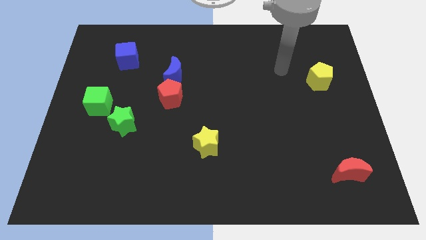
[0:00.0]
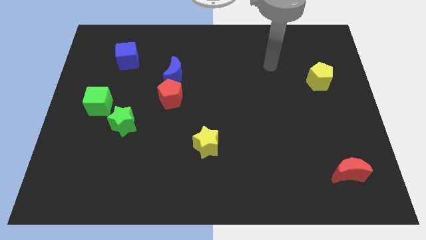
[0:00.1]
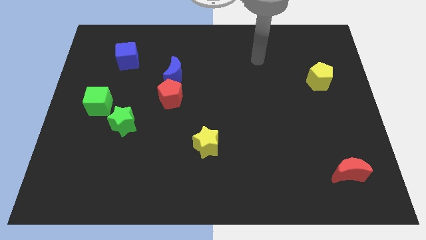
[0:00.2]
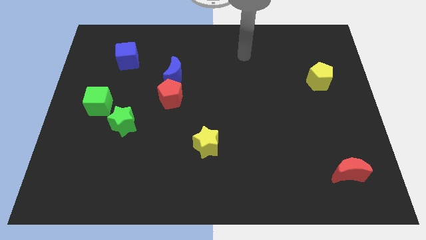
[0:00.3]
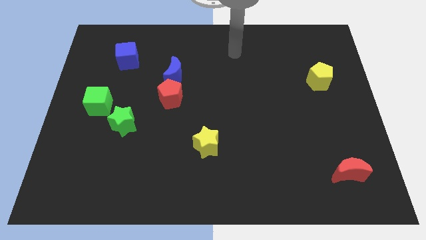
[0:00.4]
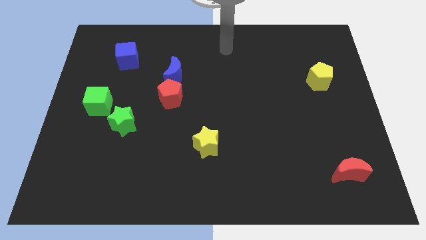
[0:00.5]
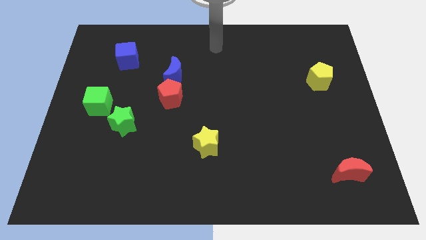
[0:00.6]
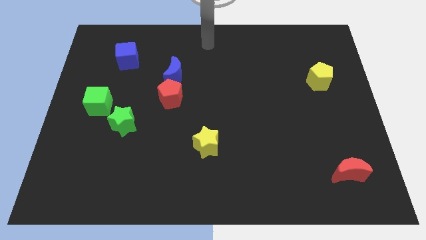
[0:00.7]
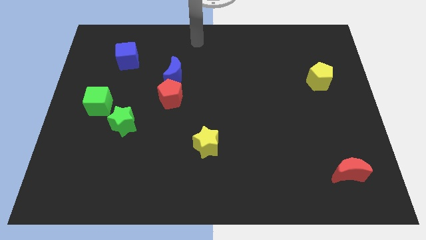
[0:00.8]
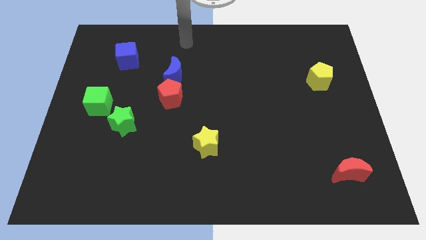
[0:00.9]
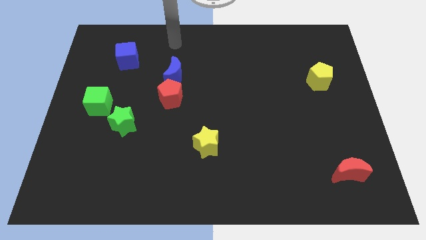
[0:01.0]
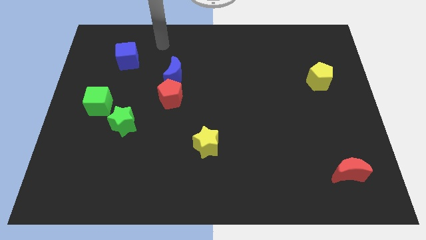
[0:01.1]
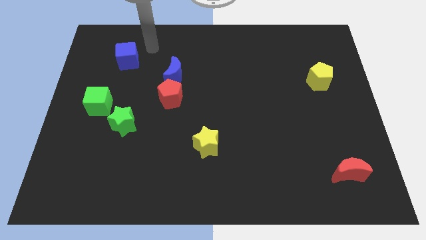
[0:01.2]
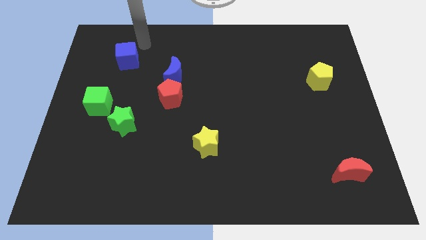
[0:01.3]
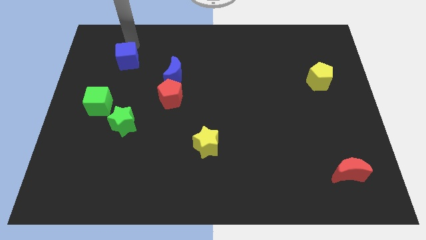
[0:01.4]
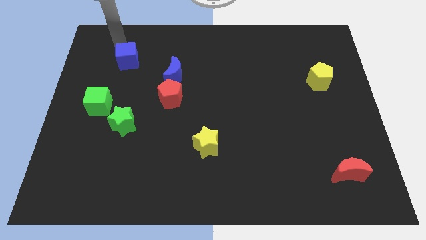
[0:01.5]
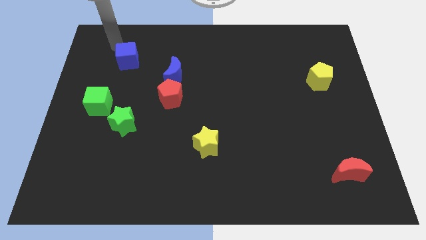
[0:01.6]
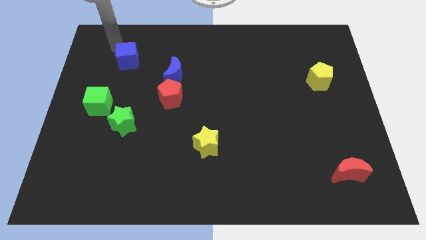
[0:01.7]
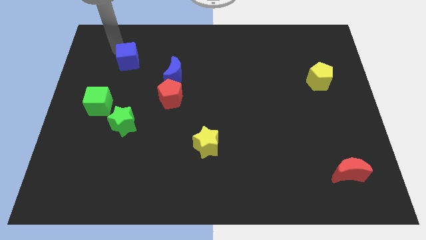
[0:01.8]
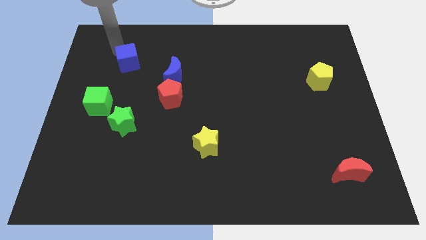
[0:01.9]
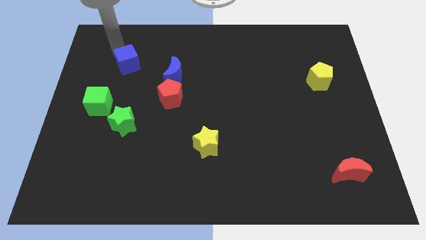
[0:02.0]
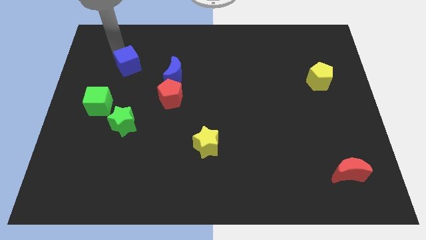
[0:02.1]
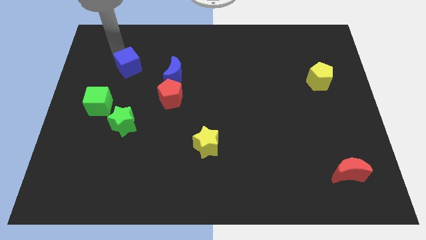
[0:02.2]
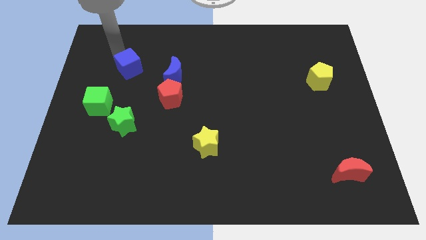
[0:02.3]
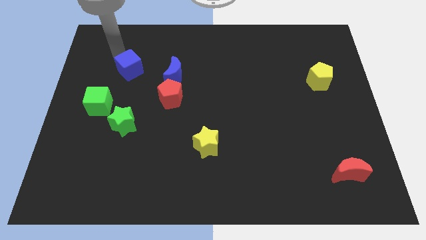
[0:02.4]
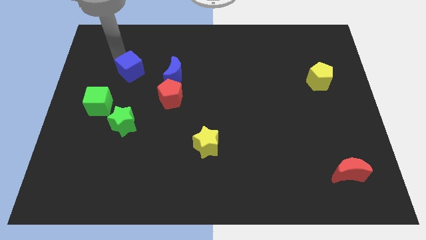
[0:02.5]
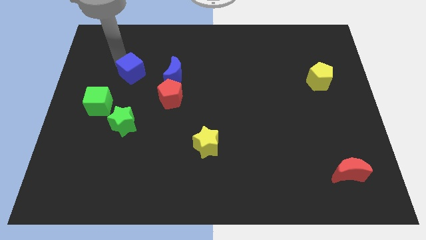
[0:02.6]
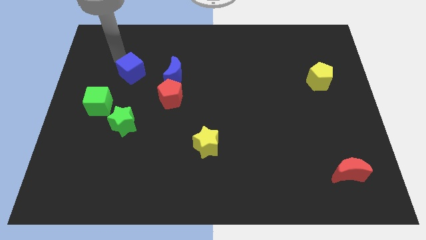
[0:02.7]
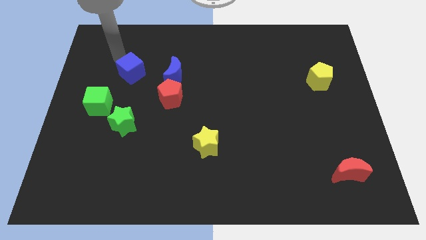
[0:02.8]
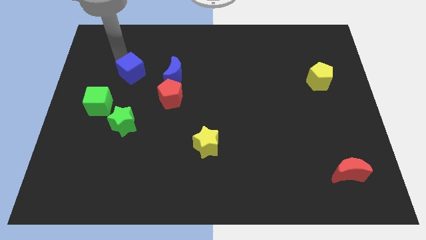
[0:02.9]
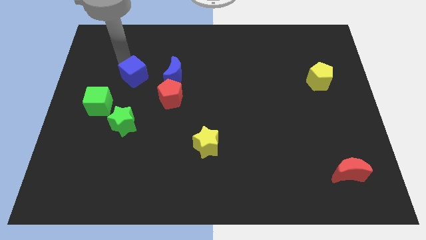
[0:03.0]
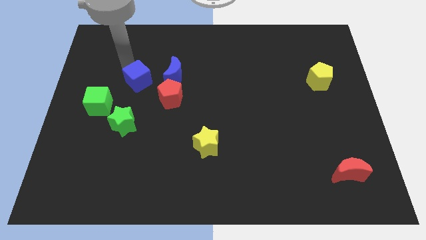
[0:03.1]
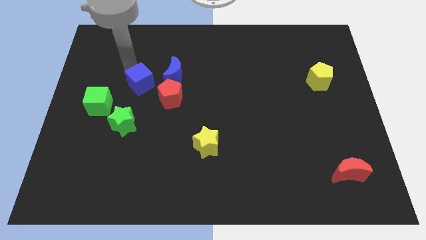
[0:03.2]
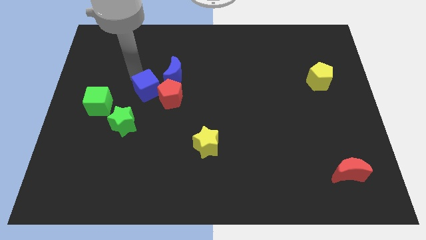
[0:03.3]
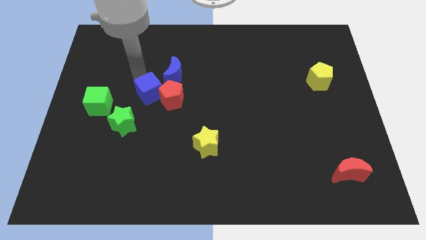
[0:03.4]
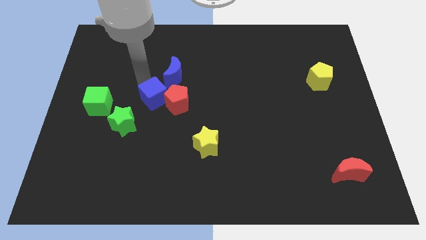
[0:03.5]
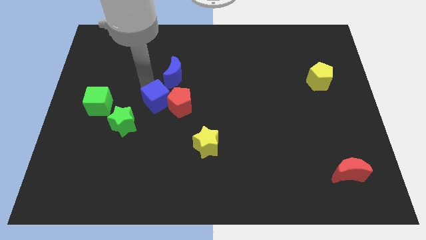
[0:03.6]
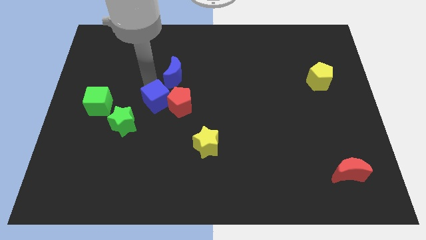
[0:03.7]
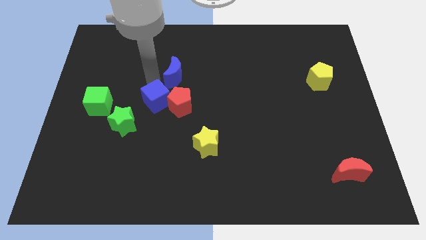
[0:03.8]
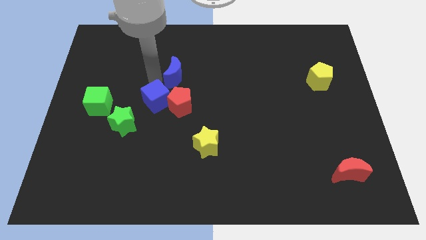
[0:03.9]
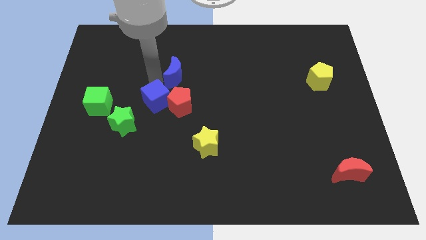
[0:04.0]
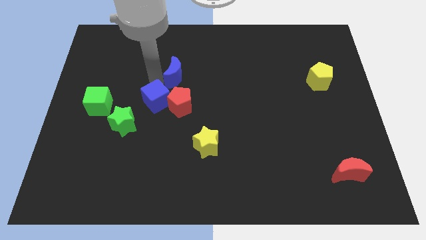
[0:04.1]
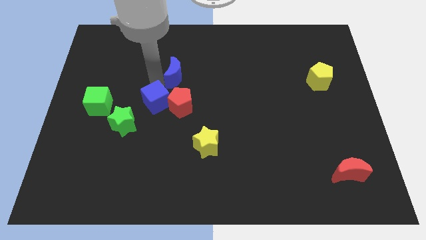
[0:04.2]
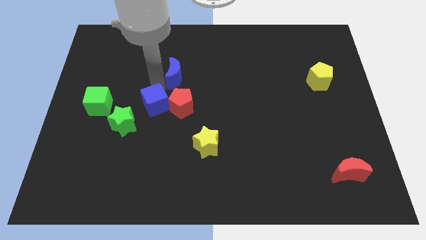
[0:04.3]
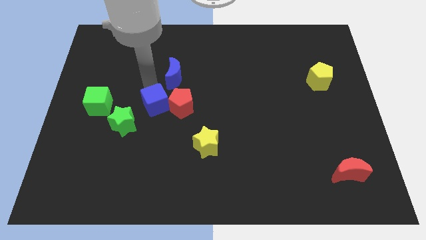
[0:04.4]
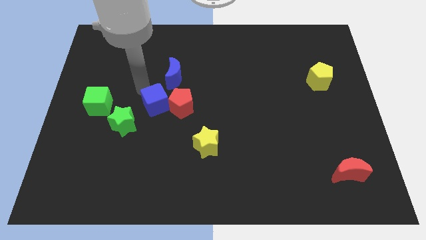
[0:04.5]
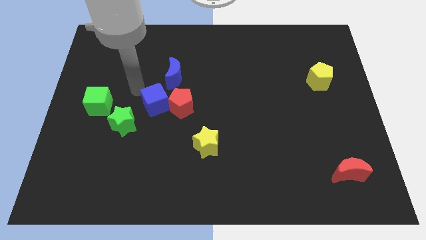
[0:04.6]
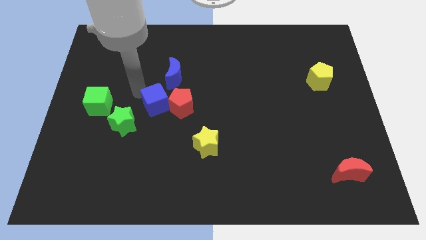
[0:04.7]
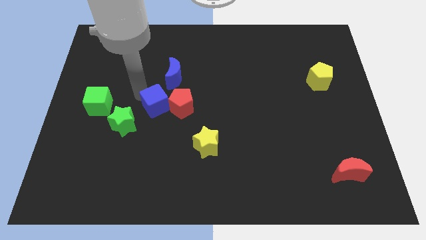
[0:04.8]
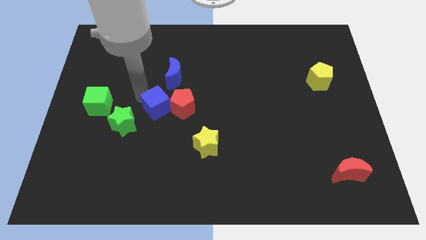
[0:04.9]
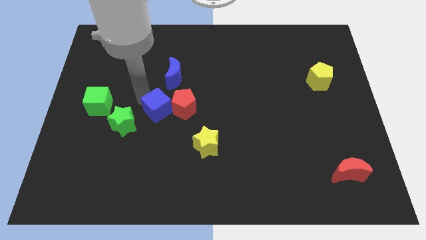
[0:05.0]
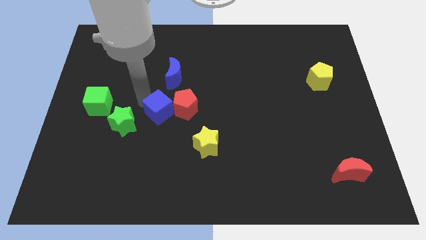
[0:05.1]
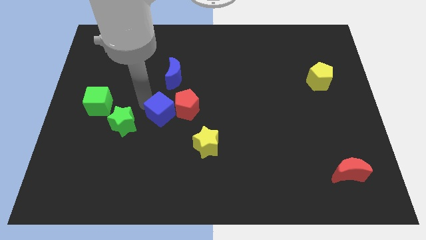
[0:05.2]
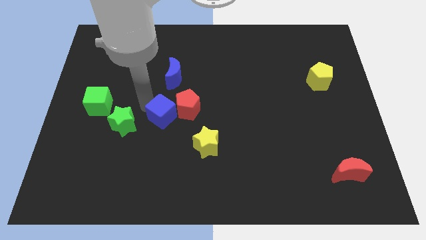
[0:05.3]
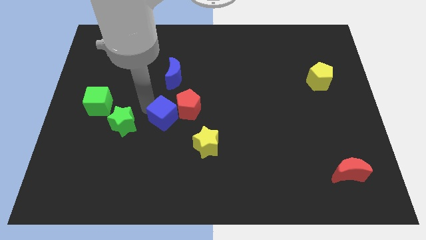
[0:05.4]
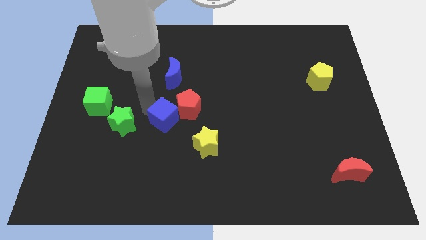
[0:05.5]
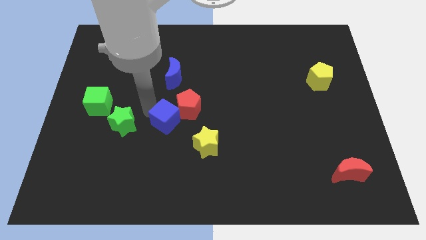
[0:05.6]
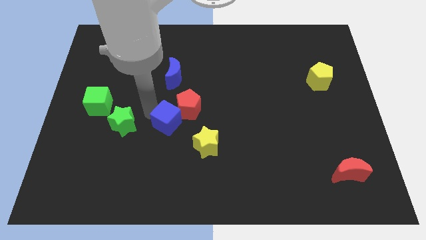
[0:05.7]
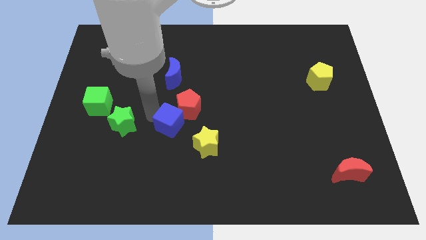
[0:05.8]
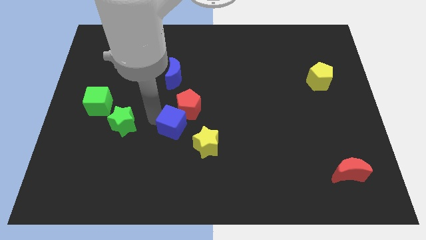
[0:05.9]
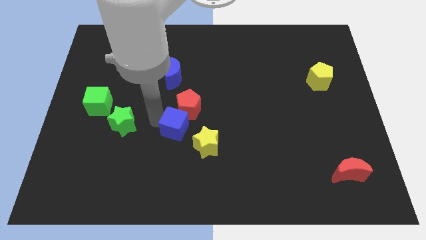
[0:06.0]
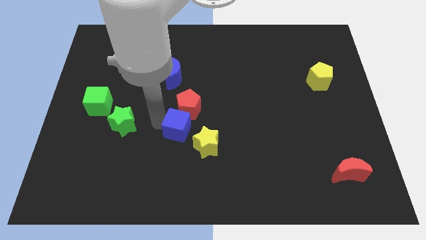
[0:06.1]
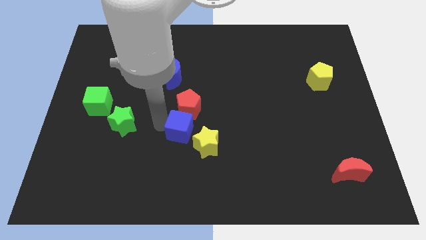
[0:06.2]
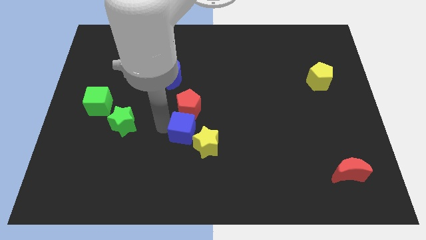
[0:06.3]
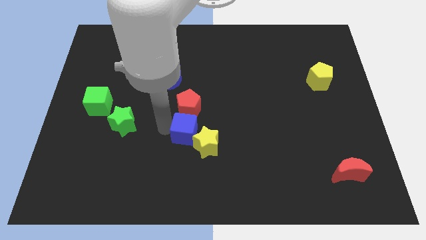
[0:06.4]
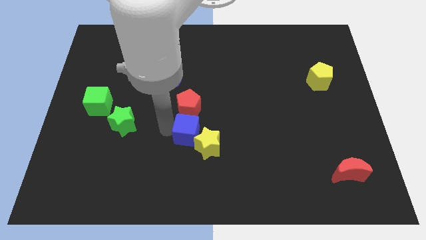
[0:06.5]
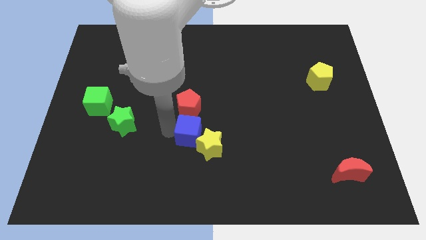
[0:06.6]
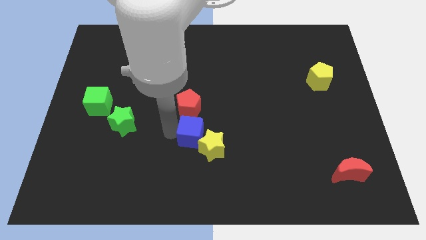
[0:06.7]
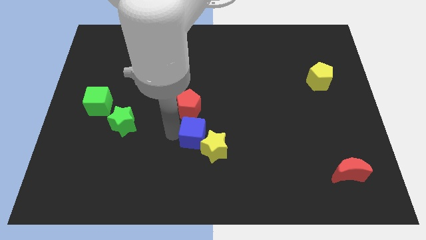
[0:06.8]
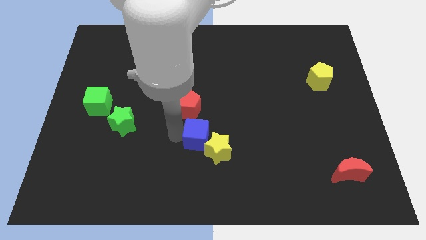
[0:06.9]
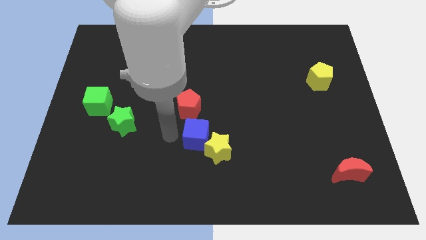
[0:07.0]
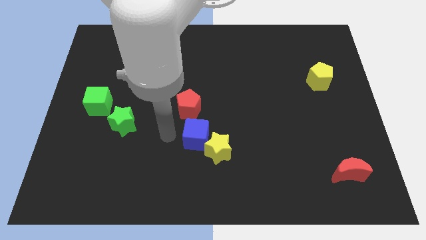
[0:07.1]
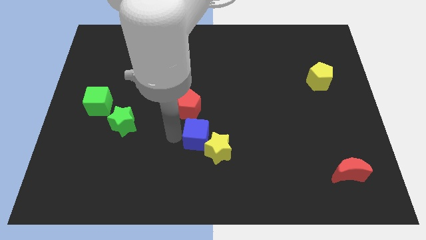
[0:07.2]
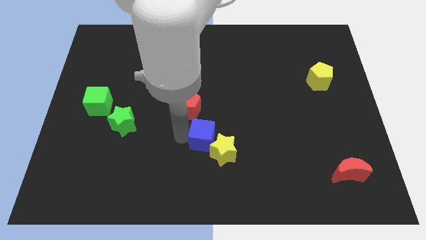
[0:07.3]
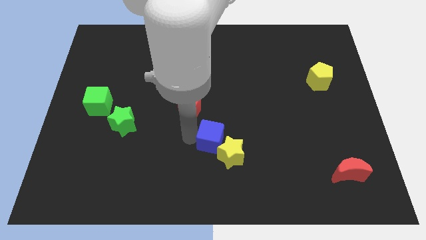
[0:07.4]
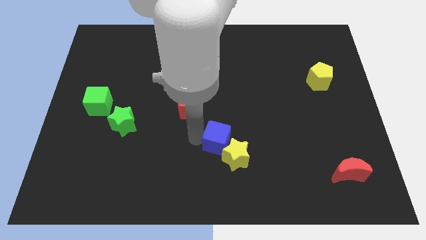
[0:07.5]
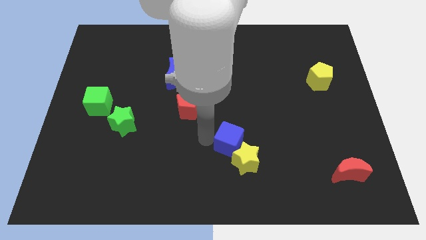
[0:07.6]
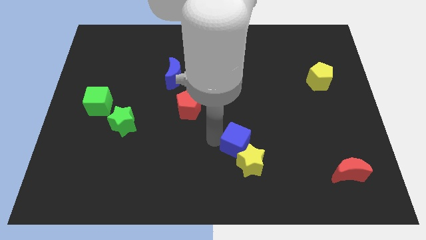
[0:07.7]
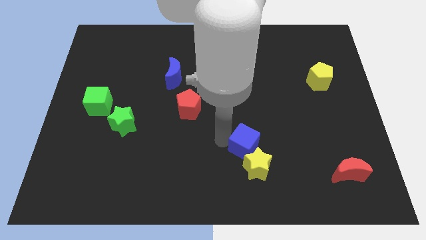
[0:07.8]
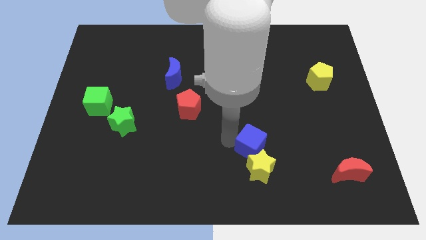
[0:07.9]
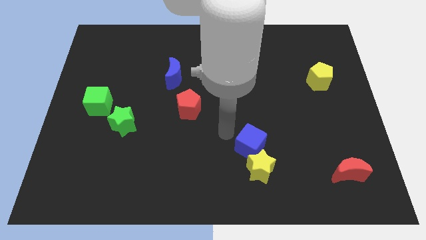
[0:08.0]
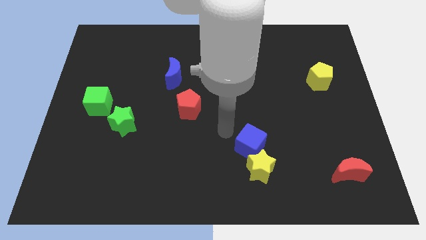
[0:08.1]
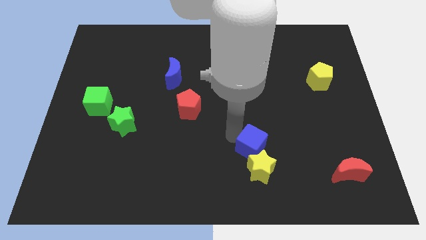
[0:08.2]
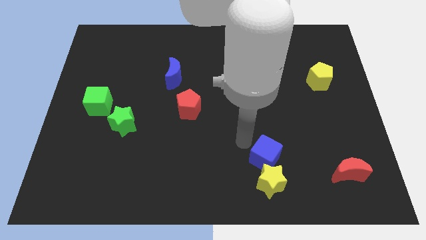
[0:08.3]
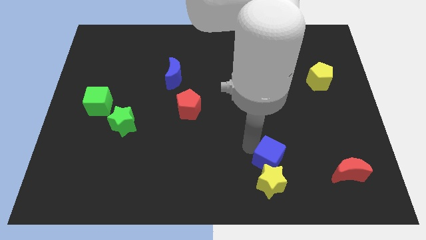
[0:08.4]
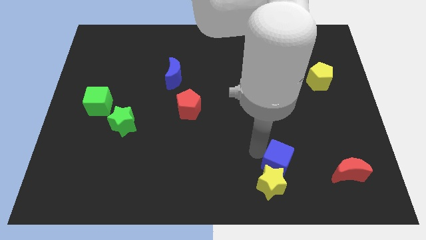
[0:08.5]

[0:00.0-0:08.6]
move the blue cube just left of the red moon
